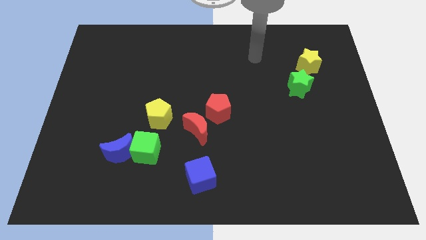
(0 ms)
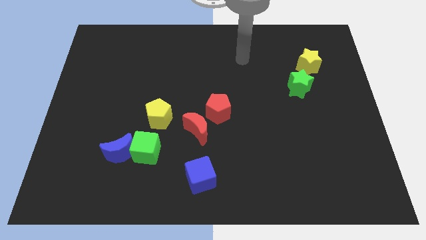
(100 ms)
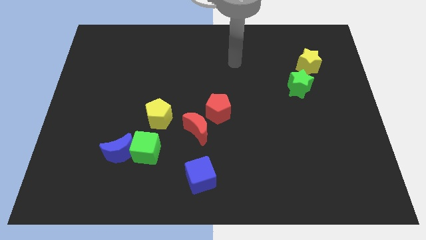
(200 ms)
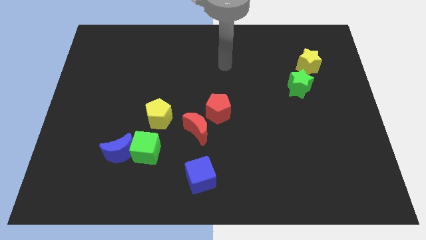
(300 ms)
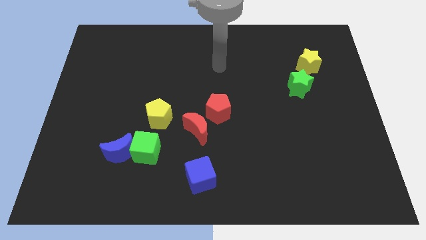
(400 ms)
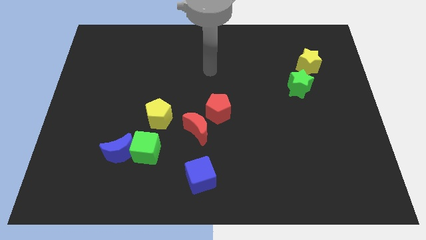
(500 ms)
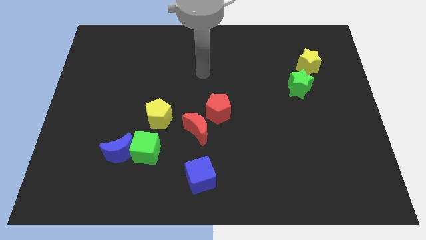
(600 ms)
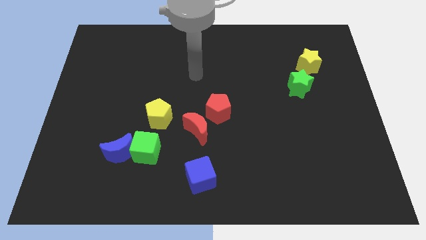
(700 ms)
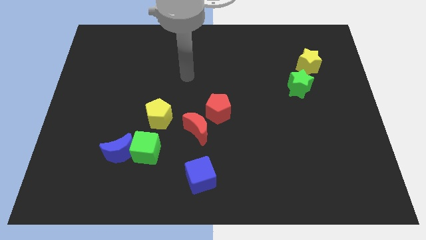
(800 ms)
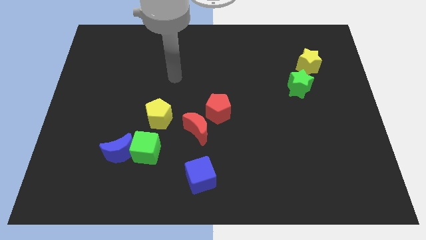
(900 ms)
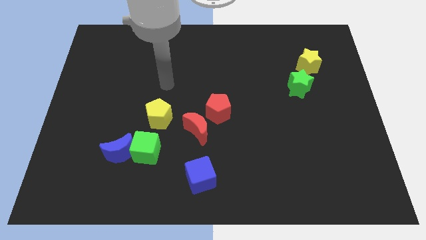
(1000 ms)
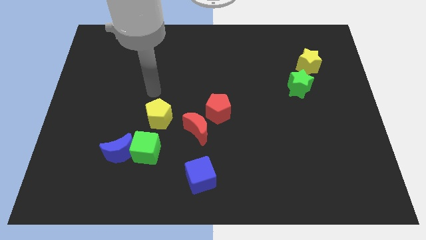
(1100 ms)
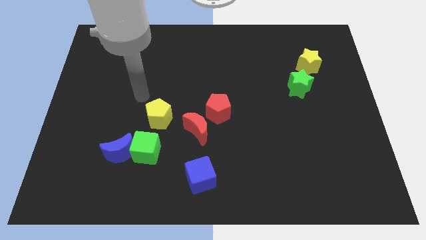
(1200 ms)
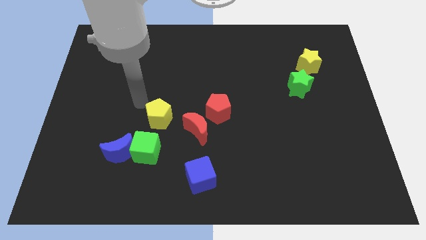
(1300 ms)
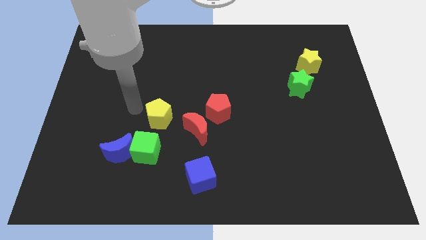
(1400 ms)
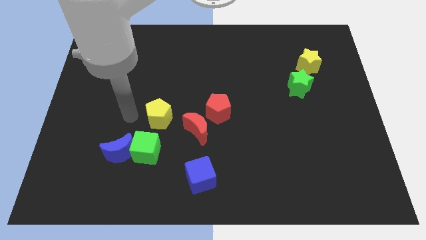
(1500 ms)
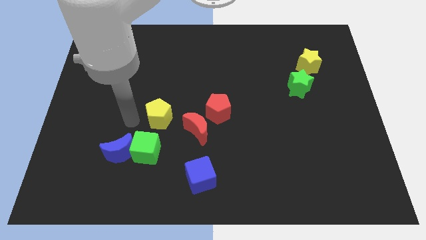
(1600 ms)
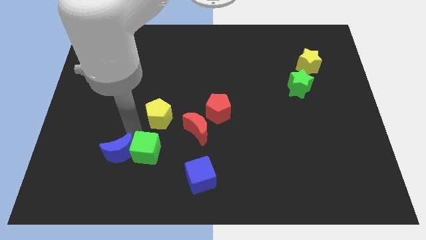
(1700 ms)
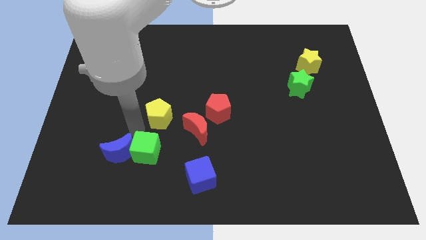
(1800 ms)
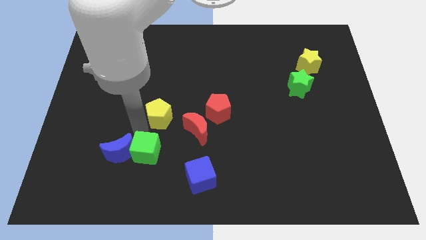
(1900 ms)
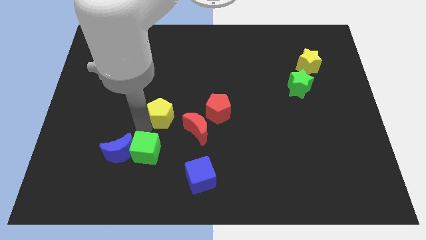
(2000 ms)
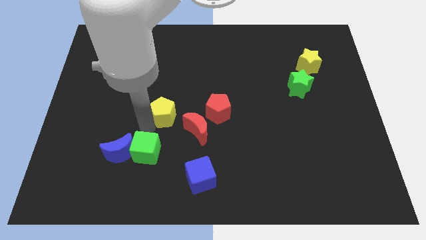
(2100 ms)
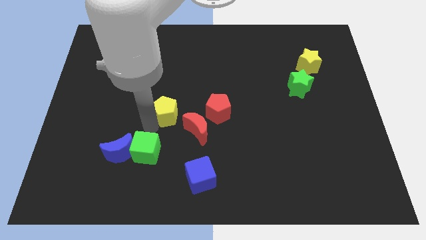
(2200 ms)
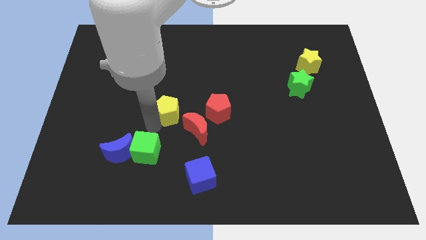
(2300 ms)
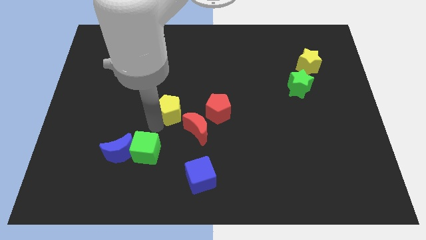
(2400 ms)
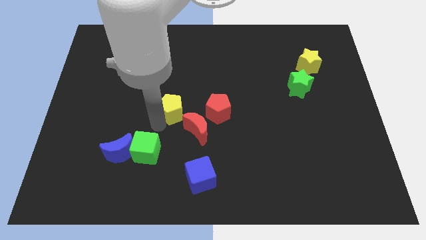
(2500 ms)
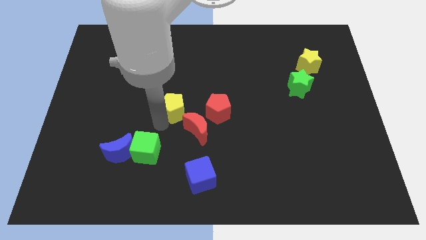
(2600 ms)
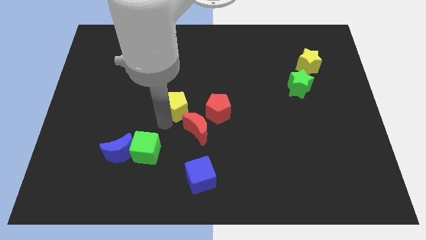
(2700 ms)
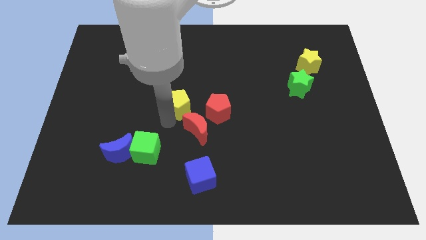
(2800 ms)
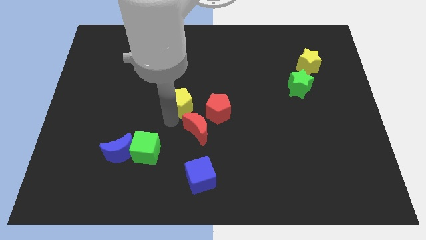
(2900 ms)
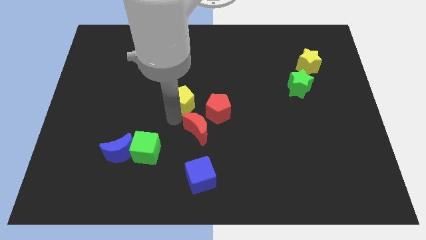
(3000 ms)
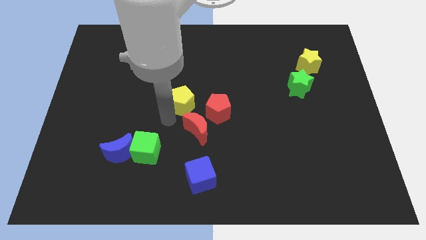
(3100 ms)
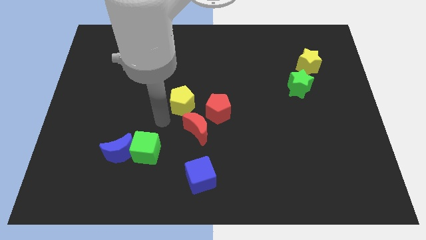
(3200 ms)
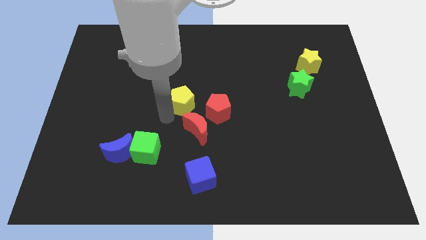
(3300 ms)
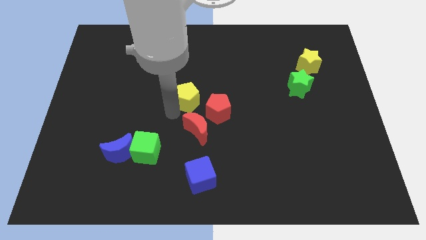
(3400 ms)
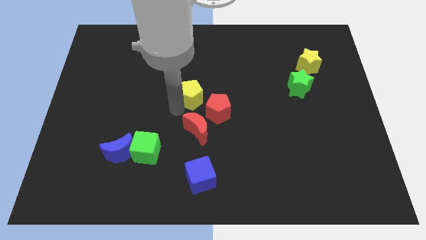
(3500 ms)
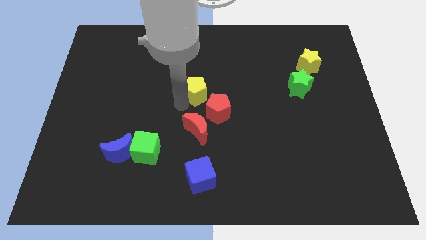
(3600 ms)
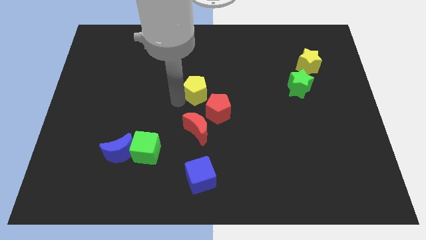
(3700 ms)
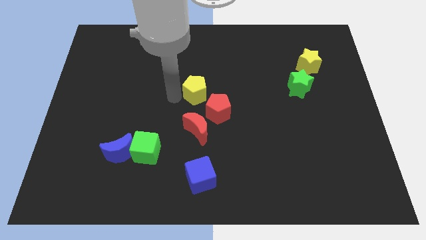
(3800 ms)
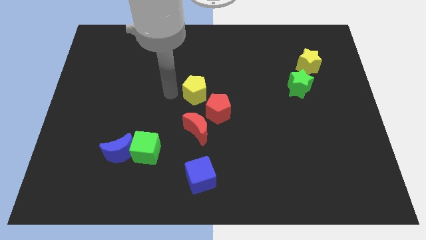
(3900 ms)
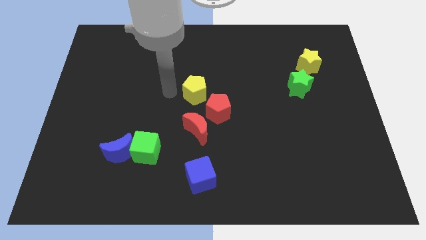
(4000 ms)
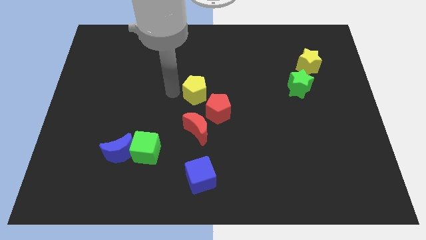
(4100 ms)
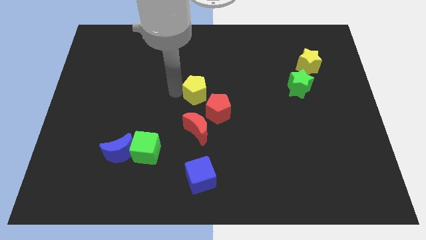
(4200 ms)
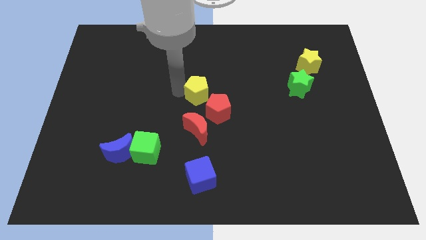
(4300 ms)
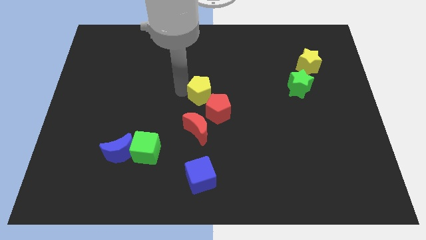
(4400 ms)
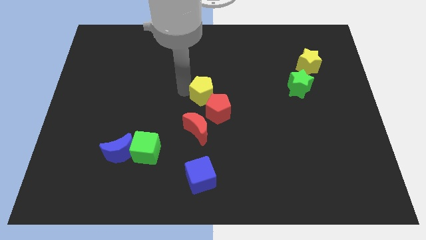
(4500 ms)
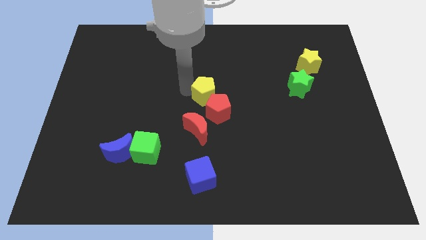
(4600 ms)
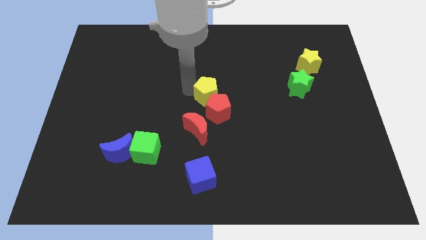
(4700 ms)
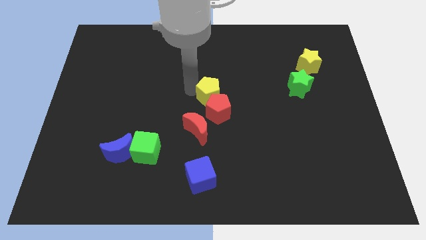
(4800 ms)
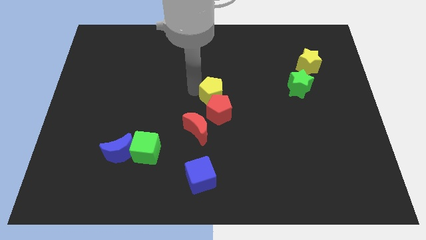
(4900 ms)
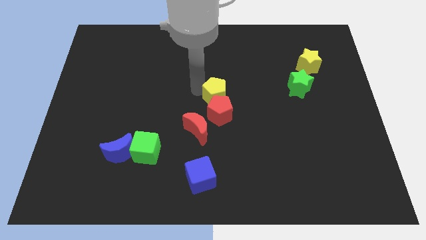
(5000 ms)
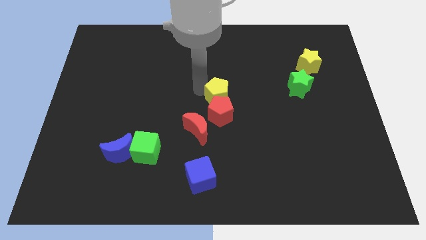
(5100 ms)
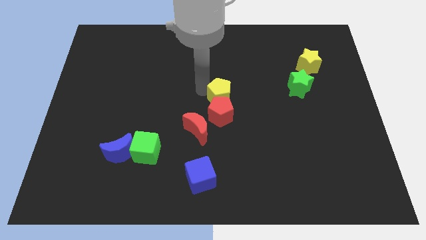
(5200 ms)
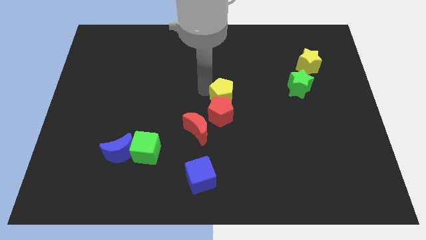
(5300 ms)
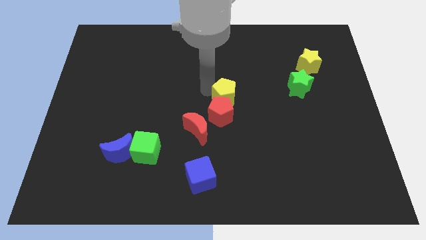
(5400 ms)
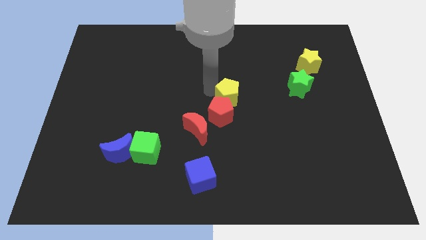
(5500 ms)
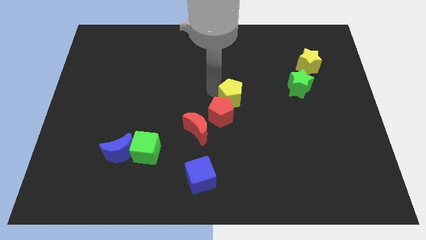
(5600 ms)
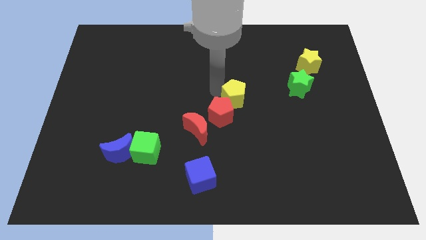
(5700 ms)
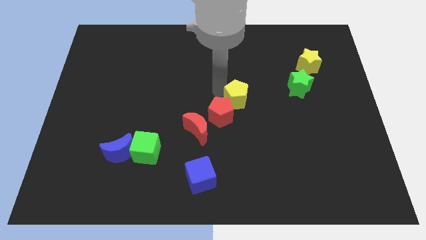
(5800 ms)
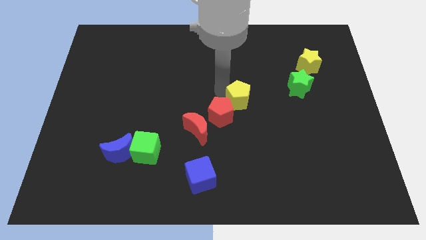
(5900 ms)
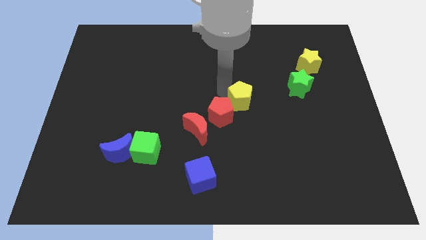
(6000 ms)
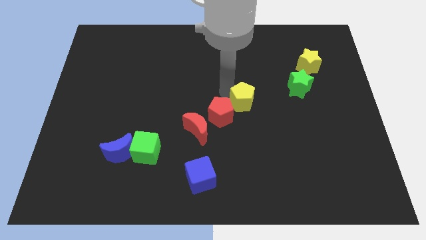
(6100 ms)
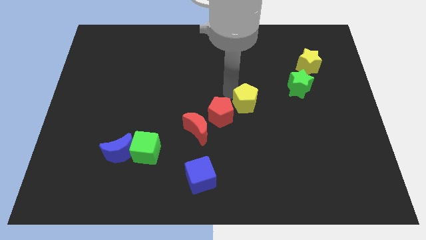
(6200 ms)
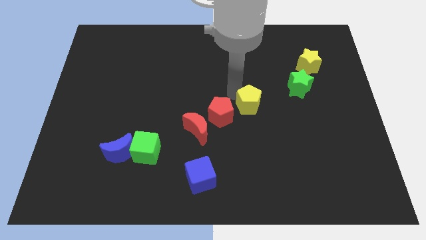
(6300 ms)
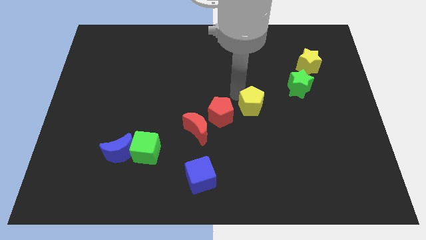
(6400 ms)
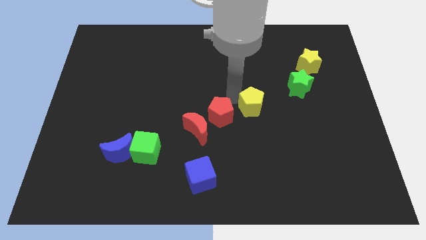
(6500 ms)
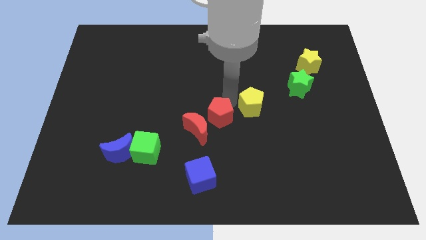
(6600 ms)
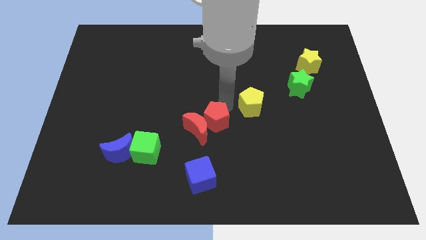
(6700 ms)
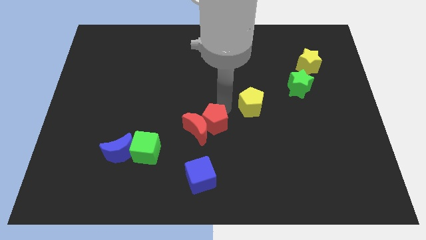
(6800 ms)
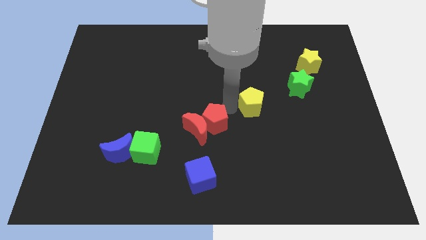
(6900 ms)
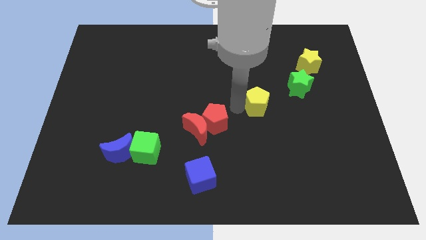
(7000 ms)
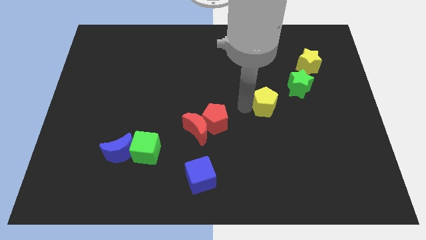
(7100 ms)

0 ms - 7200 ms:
slide the yellow pentagon diagonally down and to the left of the green star

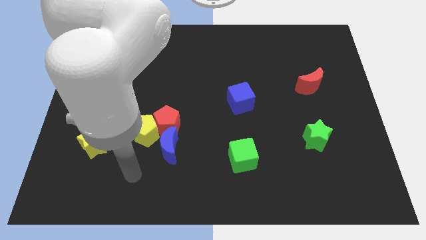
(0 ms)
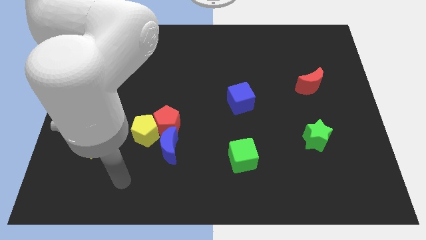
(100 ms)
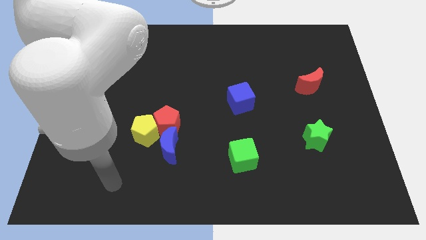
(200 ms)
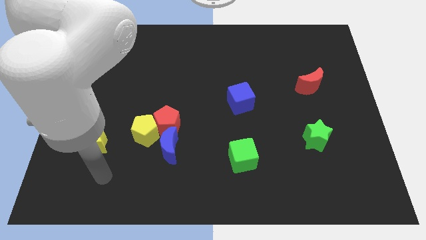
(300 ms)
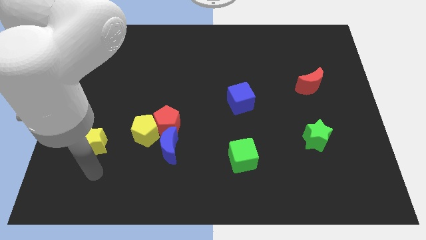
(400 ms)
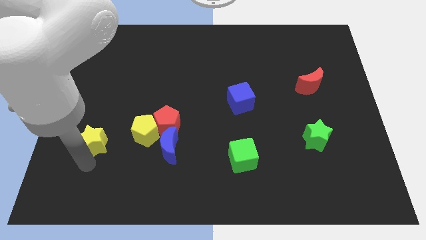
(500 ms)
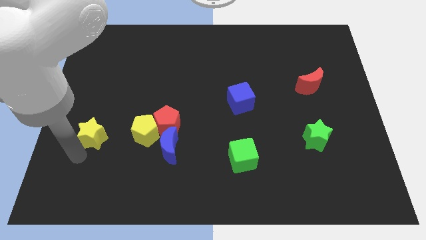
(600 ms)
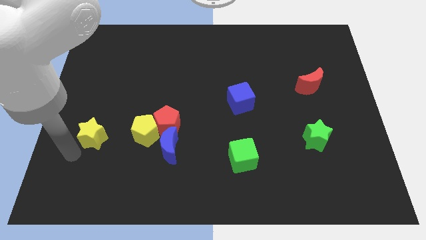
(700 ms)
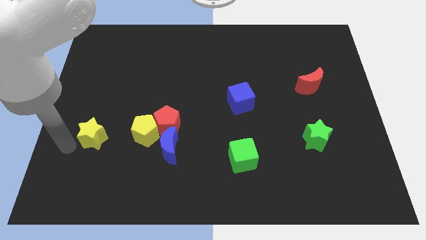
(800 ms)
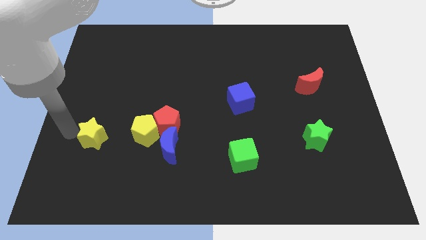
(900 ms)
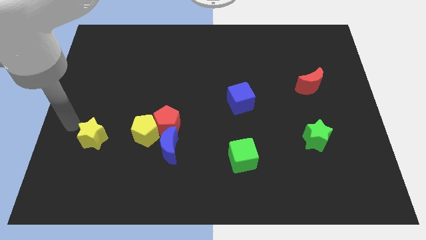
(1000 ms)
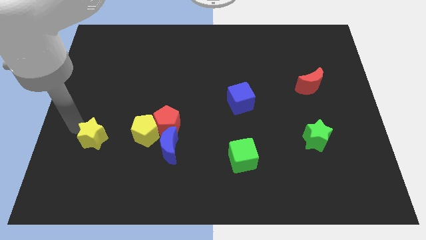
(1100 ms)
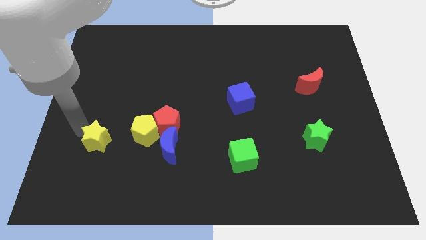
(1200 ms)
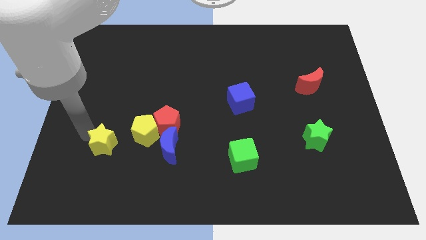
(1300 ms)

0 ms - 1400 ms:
push the yellow star to the bottom left of the yellow pentagon
